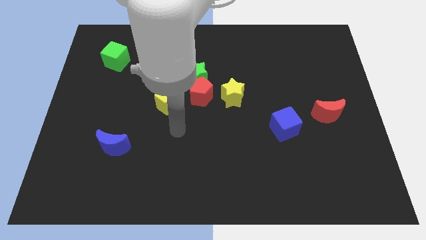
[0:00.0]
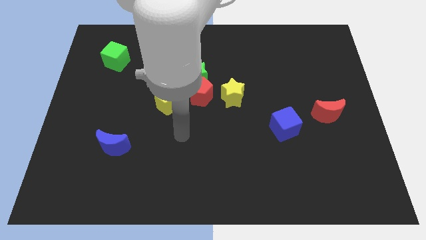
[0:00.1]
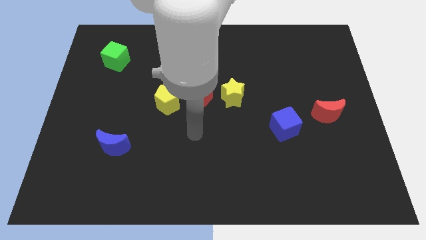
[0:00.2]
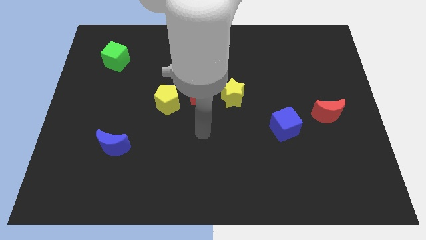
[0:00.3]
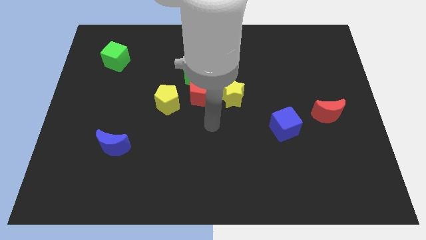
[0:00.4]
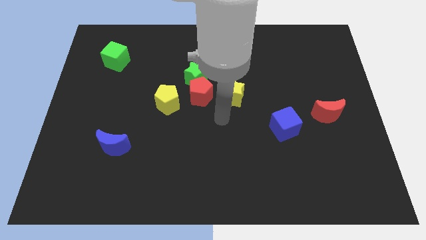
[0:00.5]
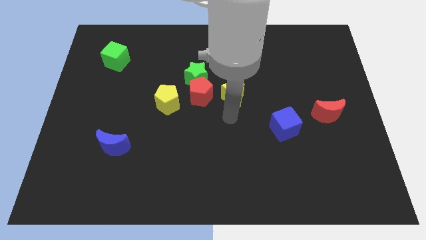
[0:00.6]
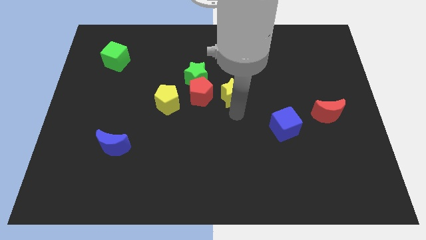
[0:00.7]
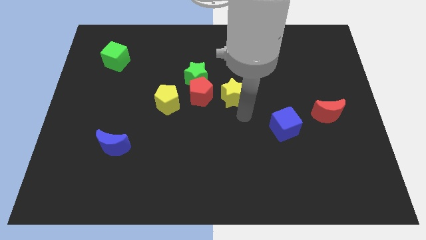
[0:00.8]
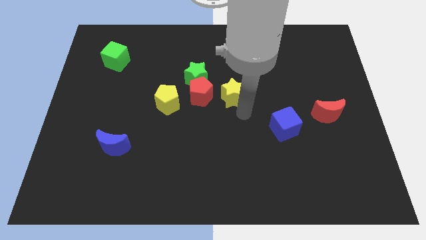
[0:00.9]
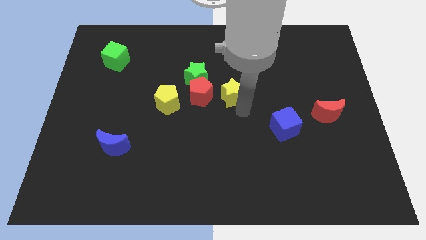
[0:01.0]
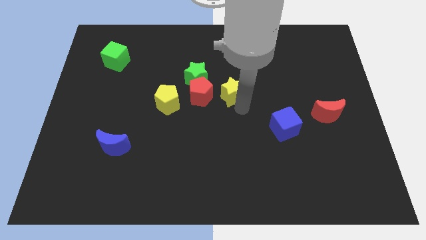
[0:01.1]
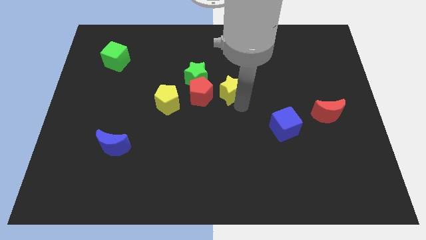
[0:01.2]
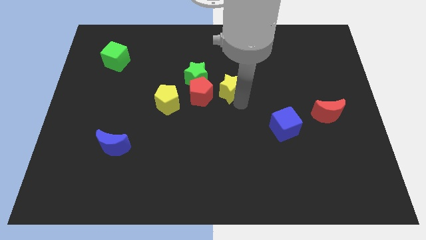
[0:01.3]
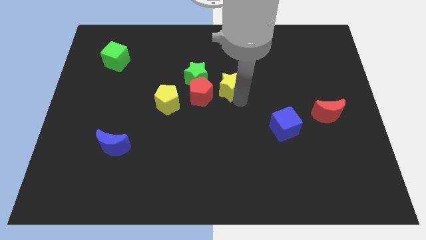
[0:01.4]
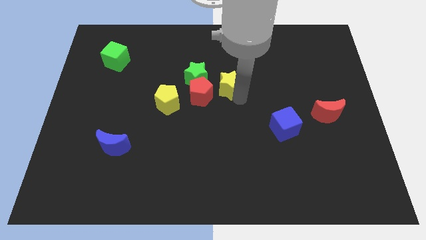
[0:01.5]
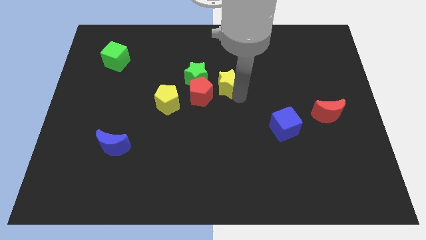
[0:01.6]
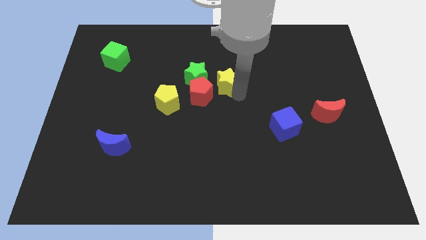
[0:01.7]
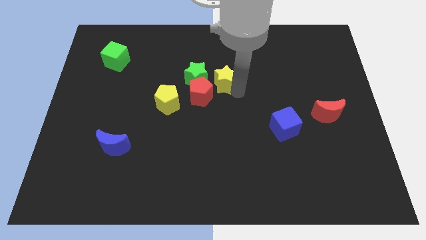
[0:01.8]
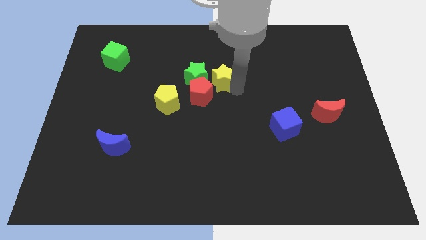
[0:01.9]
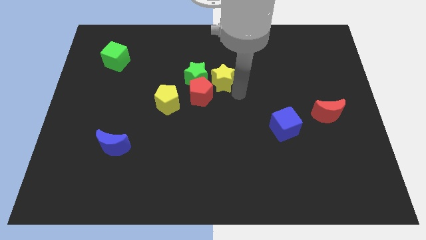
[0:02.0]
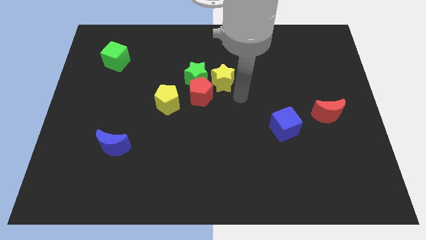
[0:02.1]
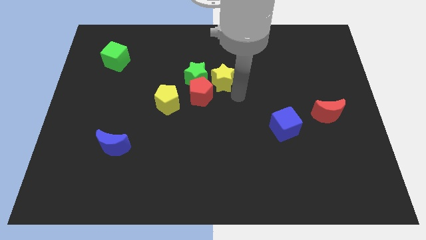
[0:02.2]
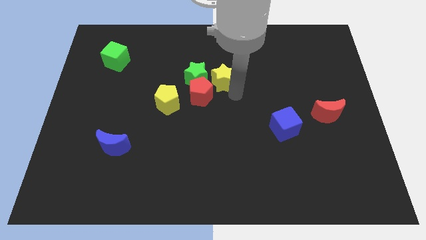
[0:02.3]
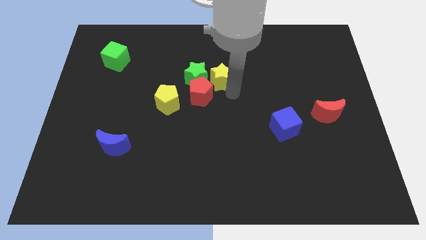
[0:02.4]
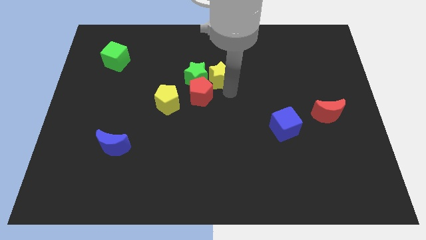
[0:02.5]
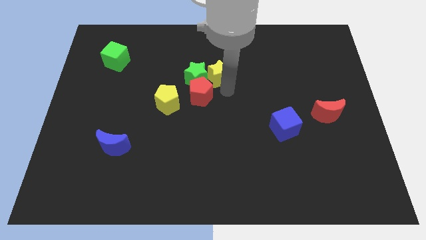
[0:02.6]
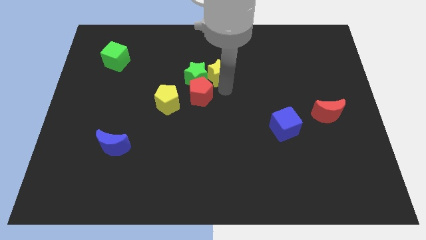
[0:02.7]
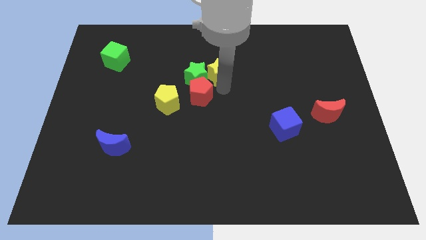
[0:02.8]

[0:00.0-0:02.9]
slide the yellow star a bit upwards and to the left

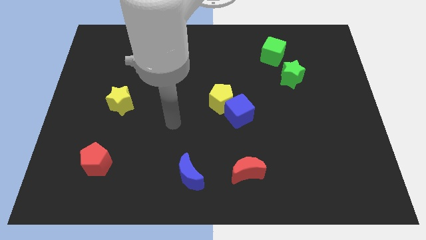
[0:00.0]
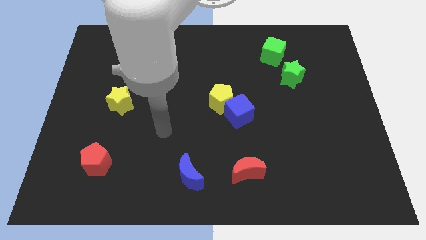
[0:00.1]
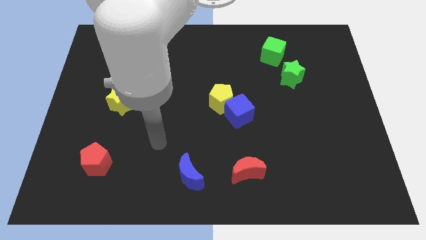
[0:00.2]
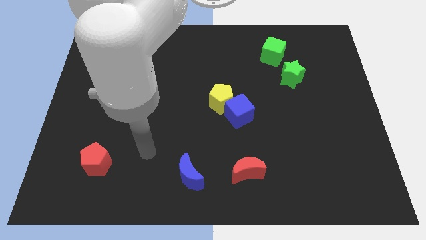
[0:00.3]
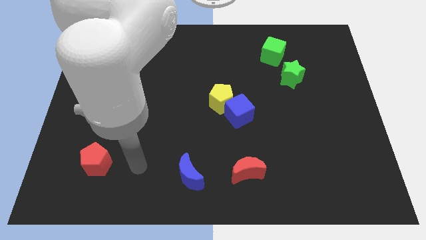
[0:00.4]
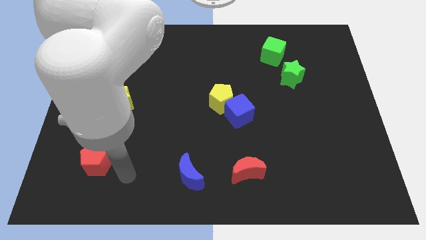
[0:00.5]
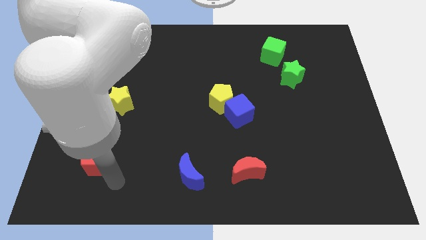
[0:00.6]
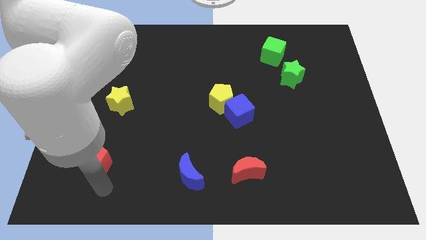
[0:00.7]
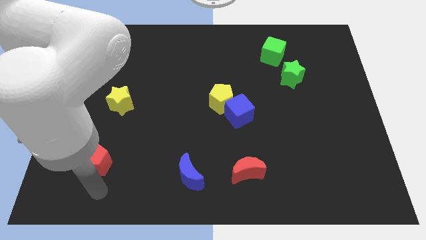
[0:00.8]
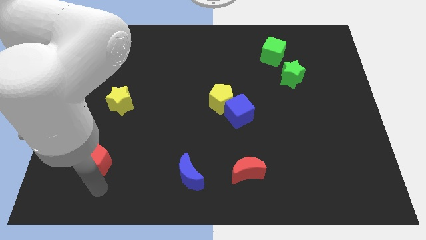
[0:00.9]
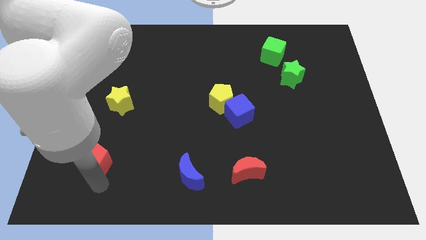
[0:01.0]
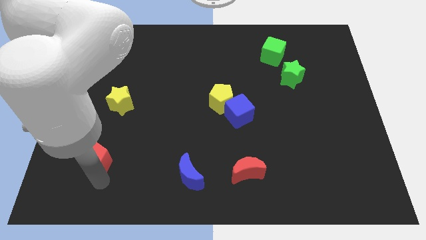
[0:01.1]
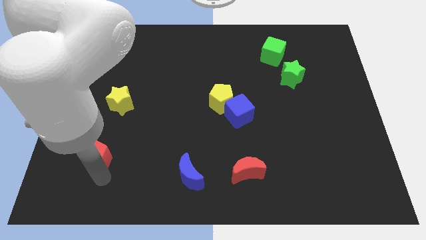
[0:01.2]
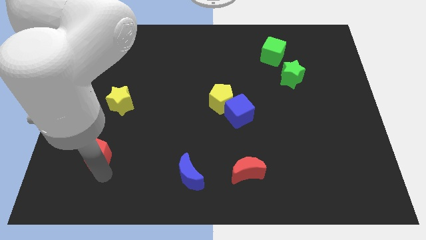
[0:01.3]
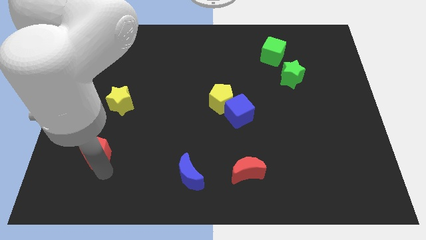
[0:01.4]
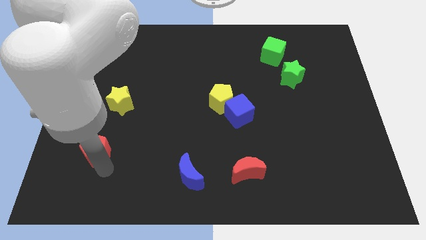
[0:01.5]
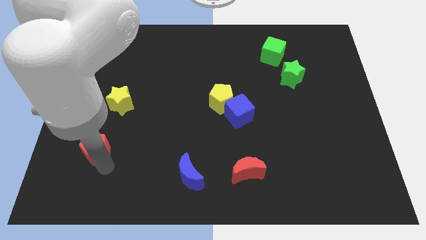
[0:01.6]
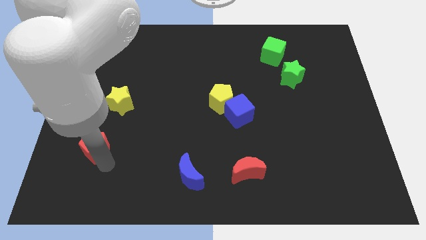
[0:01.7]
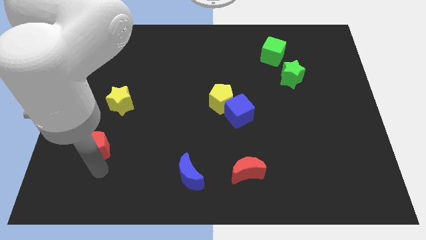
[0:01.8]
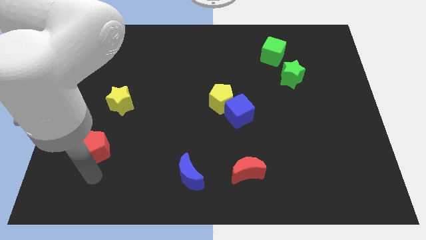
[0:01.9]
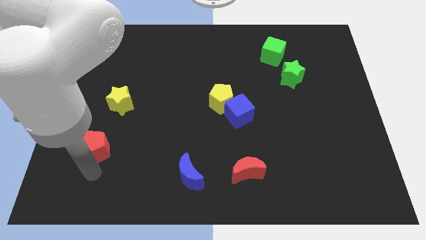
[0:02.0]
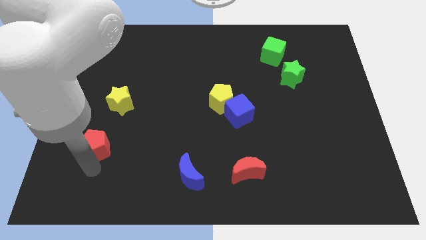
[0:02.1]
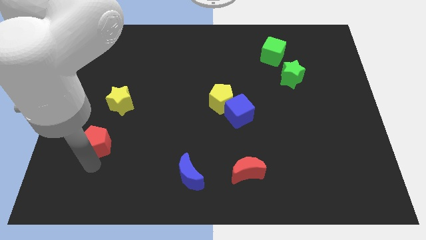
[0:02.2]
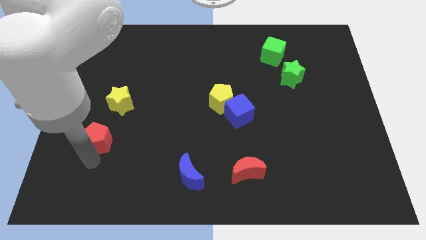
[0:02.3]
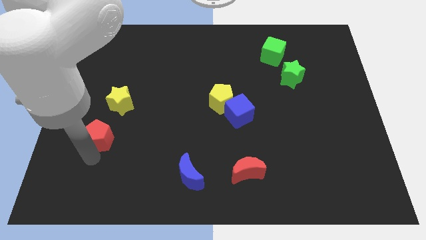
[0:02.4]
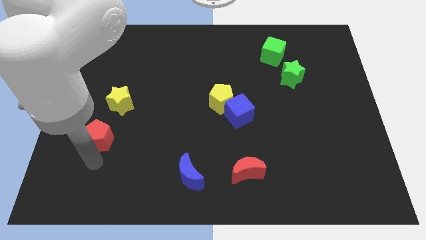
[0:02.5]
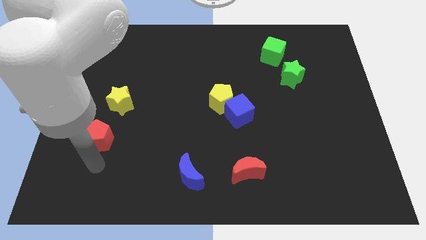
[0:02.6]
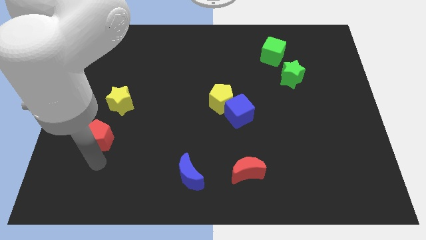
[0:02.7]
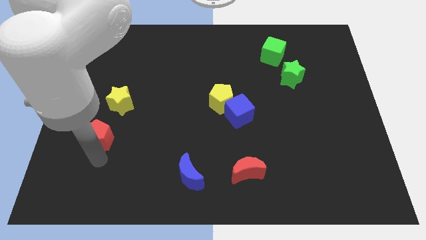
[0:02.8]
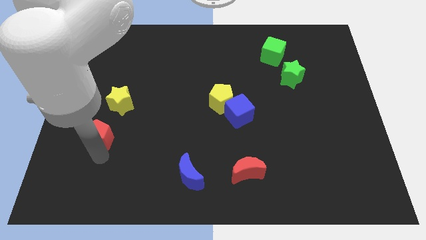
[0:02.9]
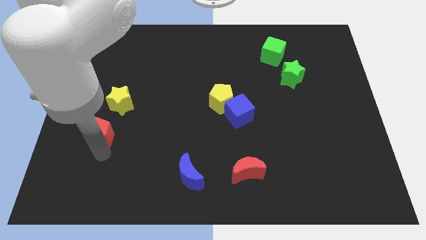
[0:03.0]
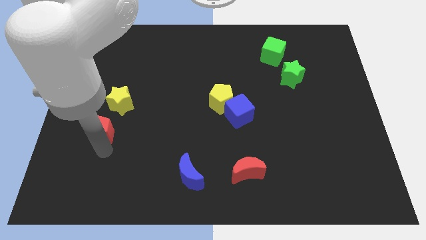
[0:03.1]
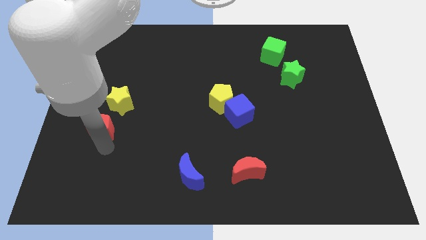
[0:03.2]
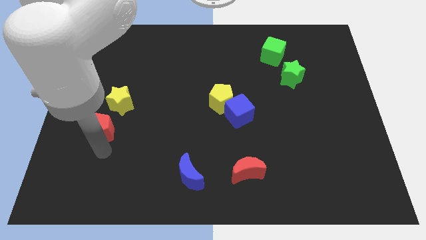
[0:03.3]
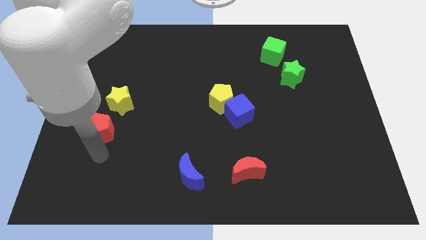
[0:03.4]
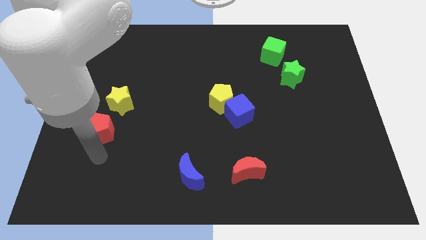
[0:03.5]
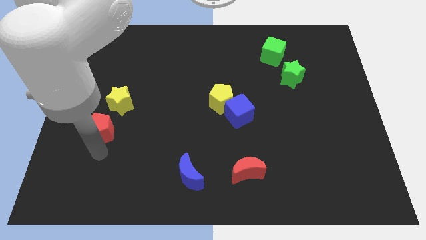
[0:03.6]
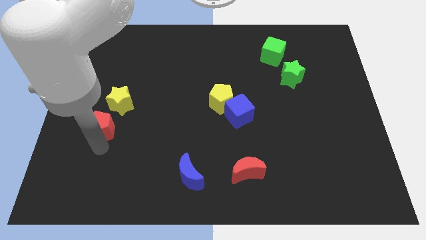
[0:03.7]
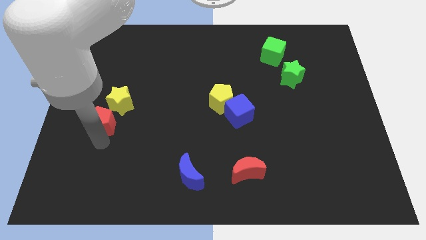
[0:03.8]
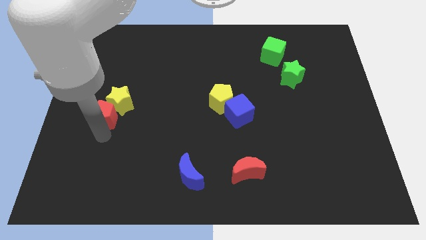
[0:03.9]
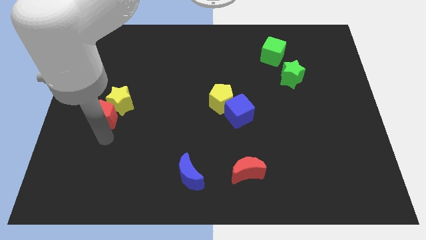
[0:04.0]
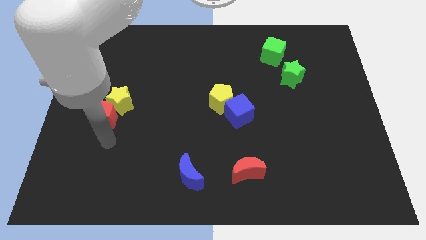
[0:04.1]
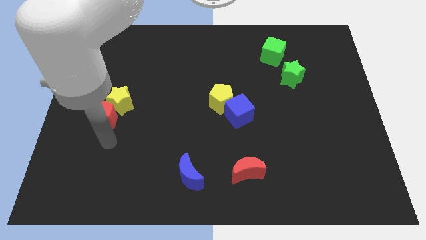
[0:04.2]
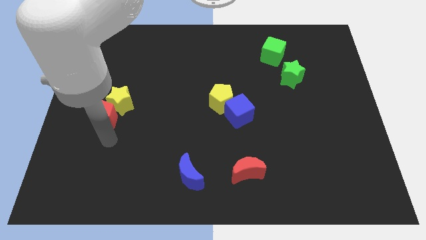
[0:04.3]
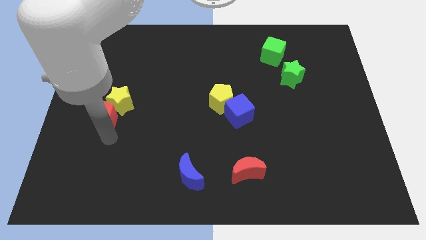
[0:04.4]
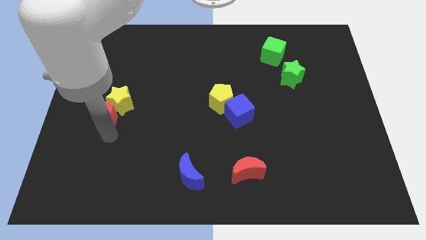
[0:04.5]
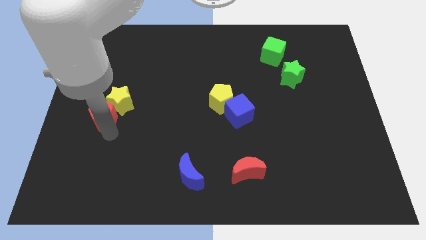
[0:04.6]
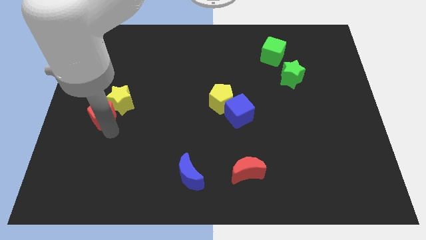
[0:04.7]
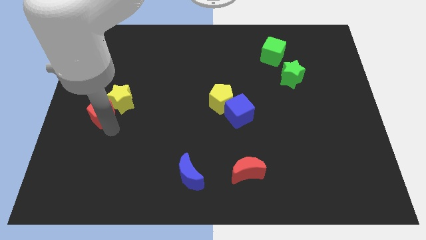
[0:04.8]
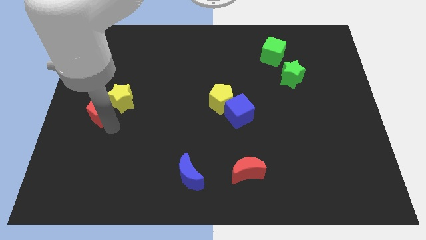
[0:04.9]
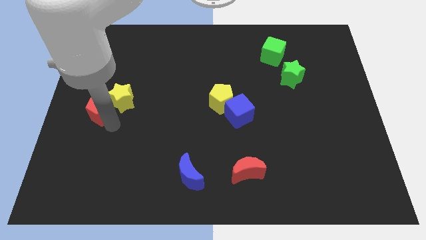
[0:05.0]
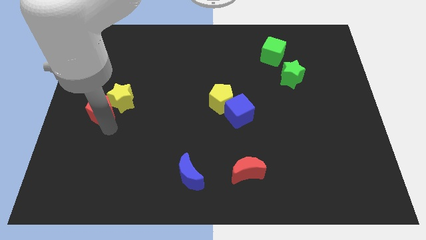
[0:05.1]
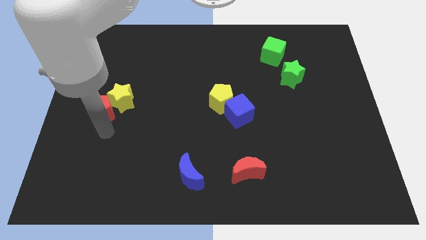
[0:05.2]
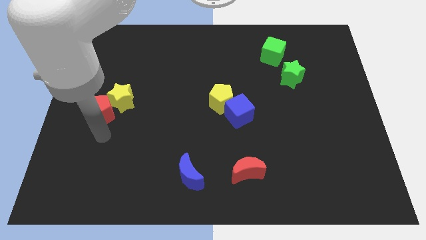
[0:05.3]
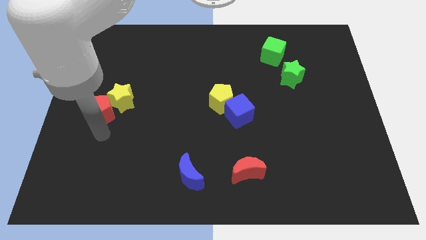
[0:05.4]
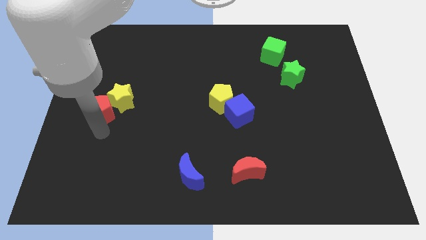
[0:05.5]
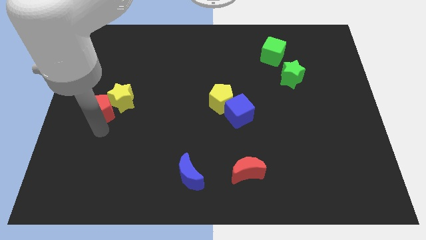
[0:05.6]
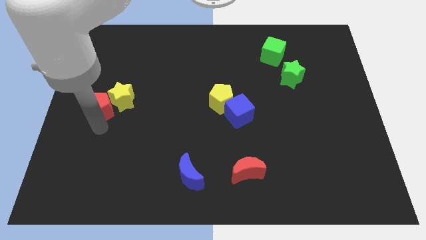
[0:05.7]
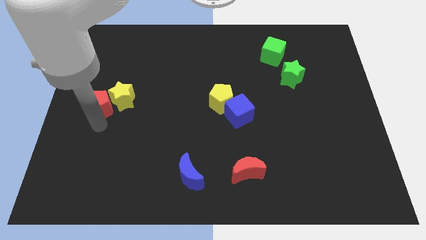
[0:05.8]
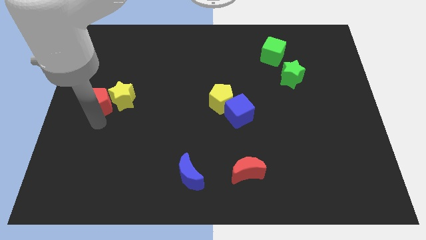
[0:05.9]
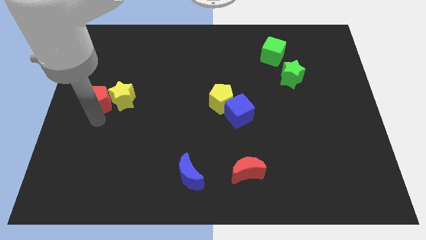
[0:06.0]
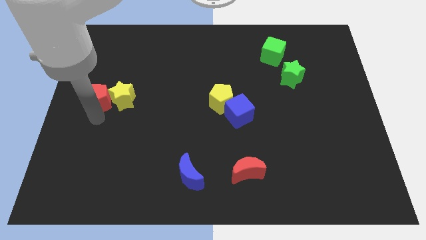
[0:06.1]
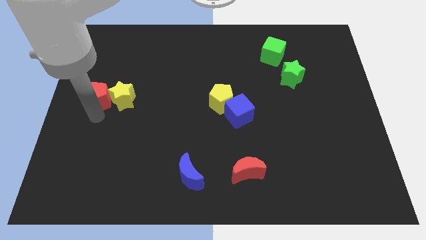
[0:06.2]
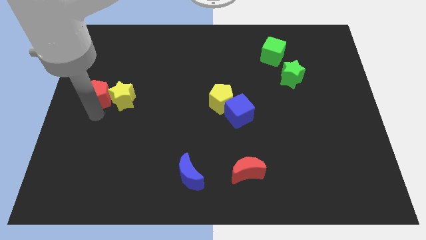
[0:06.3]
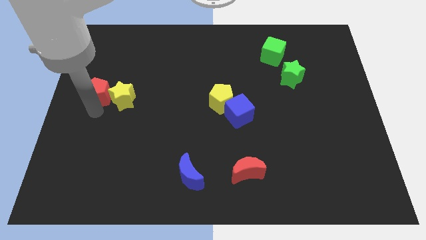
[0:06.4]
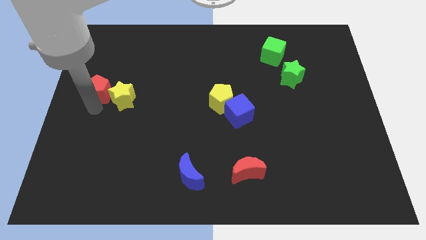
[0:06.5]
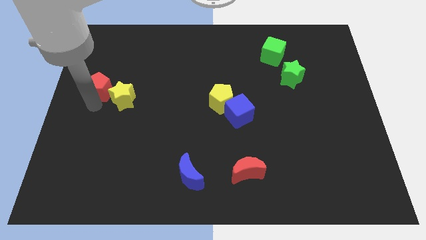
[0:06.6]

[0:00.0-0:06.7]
push the red pentagon up
